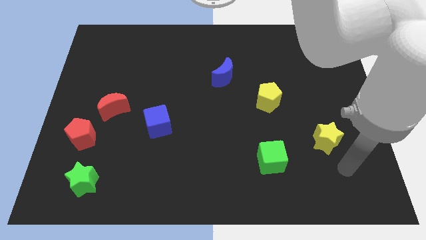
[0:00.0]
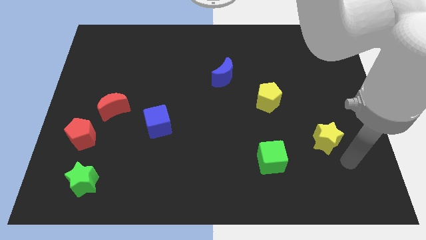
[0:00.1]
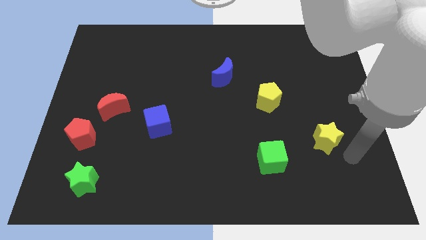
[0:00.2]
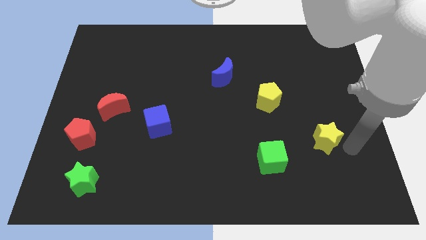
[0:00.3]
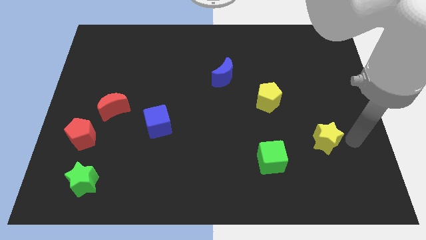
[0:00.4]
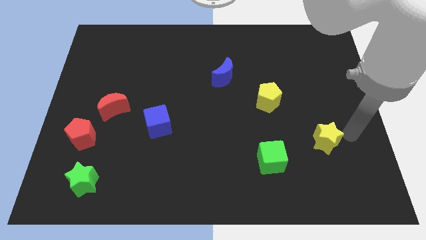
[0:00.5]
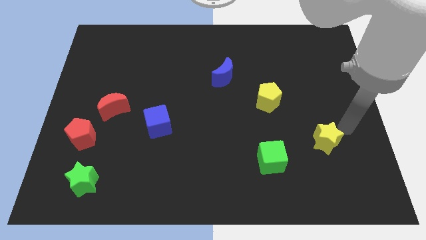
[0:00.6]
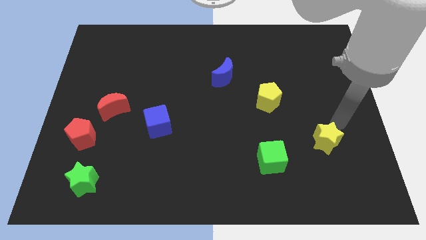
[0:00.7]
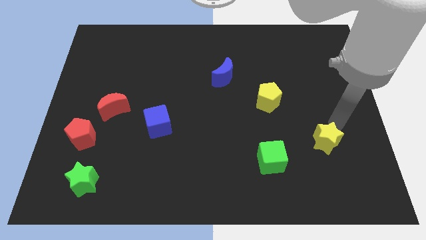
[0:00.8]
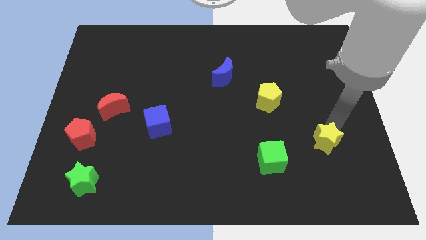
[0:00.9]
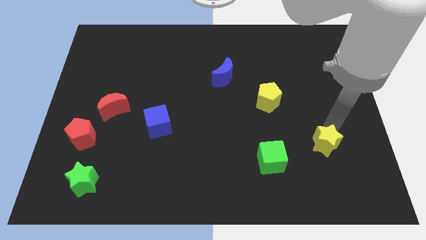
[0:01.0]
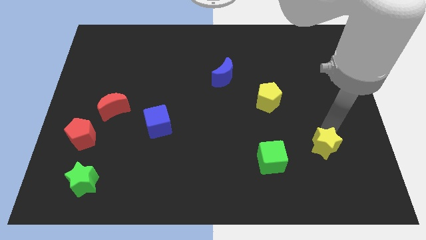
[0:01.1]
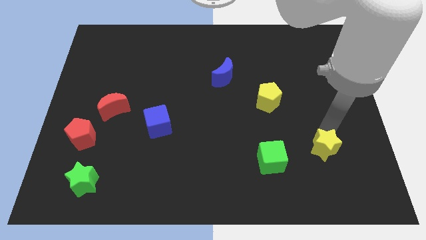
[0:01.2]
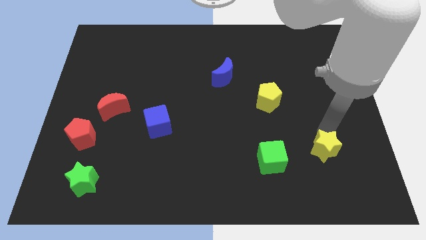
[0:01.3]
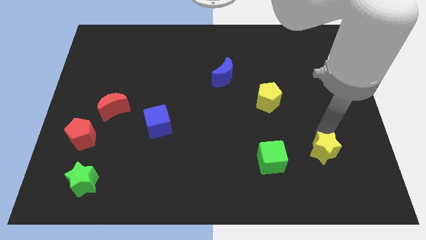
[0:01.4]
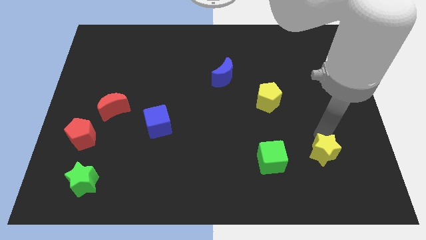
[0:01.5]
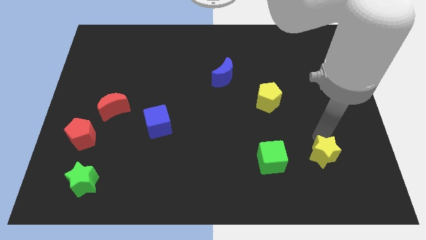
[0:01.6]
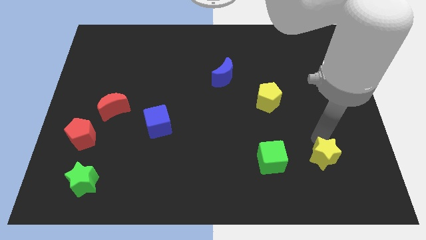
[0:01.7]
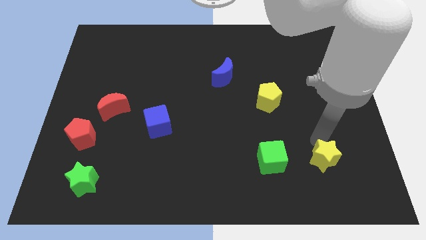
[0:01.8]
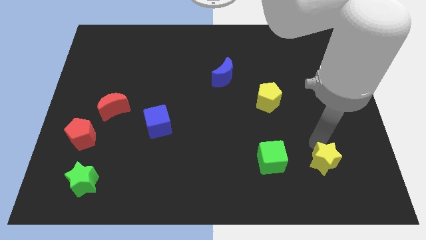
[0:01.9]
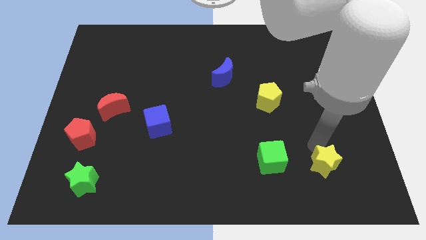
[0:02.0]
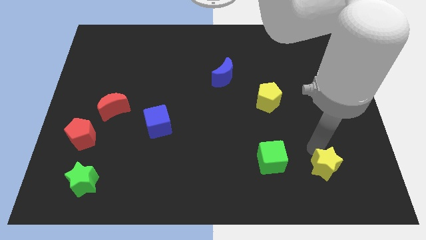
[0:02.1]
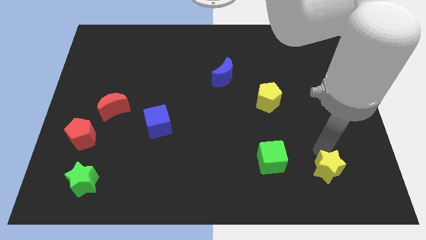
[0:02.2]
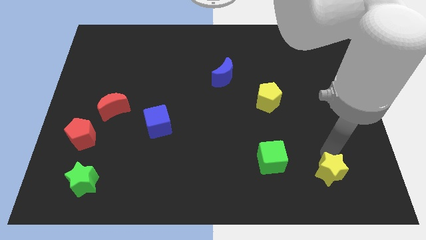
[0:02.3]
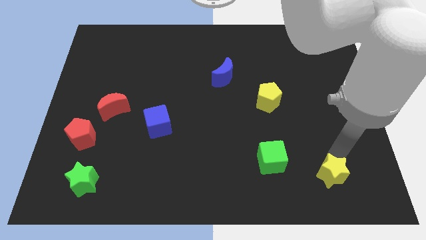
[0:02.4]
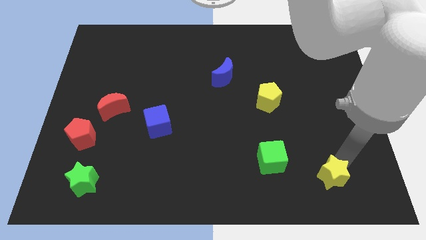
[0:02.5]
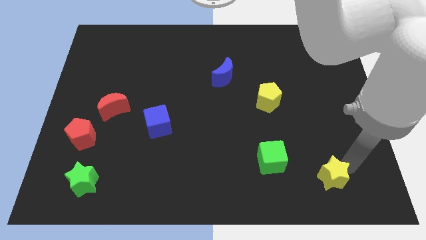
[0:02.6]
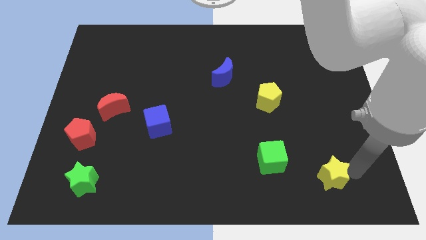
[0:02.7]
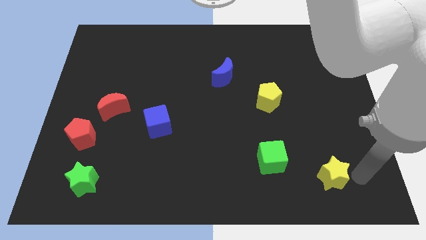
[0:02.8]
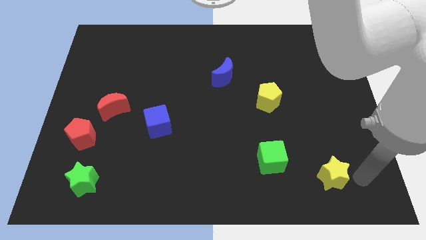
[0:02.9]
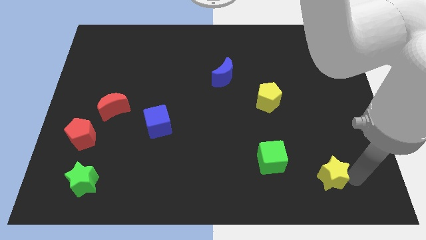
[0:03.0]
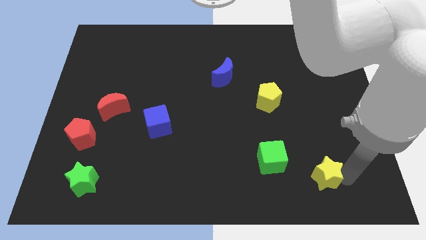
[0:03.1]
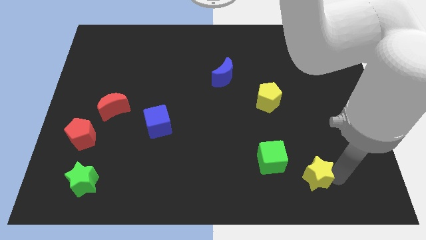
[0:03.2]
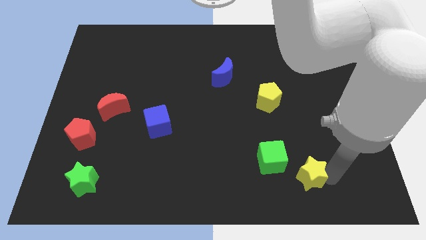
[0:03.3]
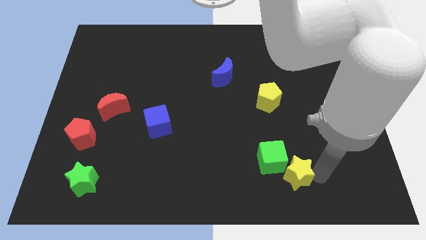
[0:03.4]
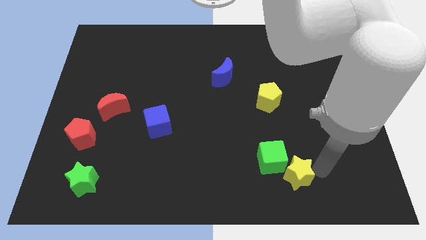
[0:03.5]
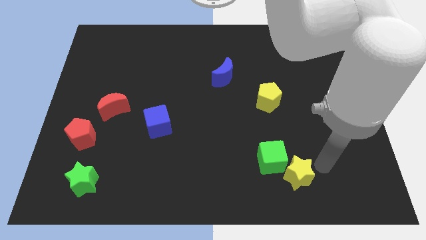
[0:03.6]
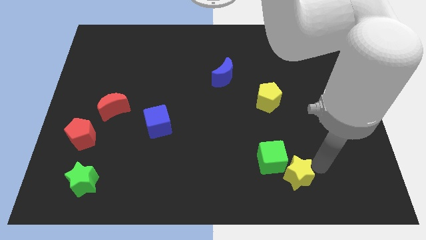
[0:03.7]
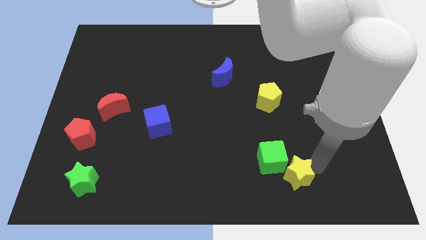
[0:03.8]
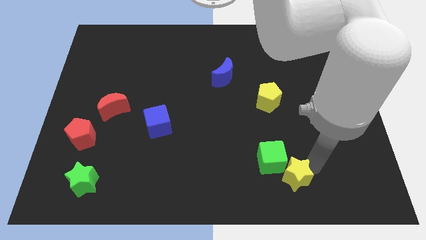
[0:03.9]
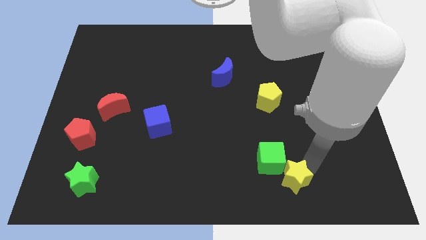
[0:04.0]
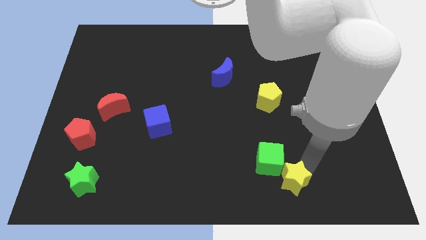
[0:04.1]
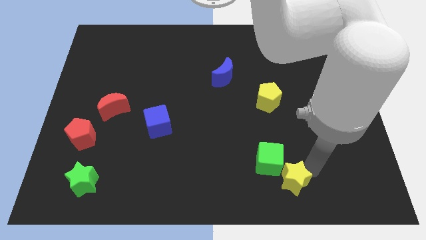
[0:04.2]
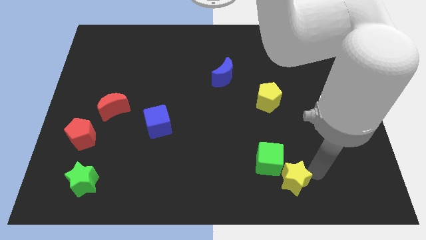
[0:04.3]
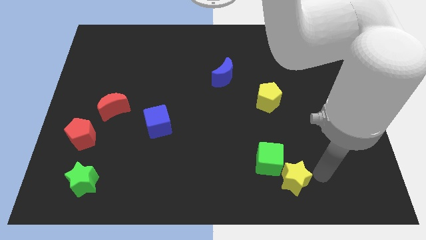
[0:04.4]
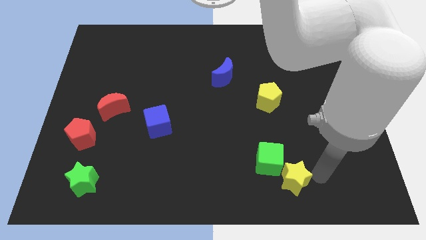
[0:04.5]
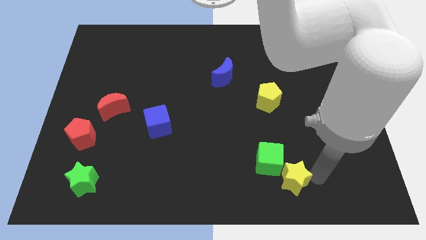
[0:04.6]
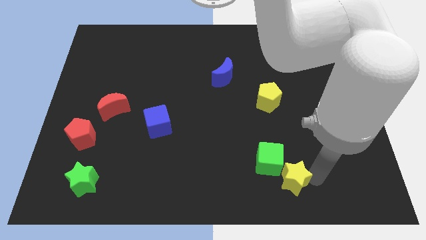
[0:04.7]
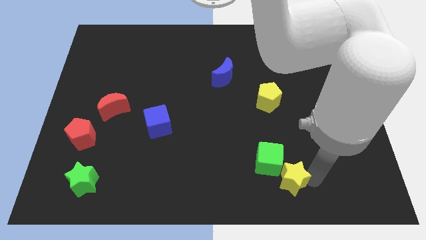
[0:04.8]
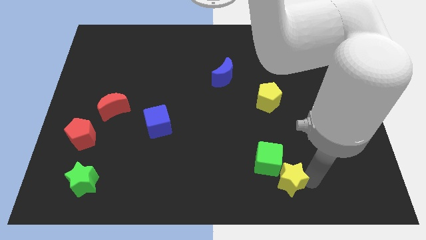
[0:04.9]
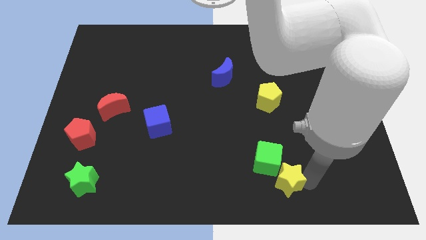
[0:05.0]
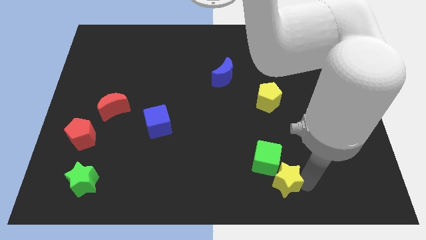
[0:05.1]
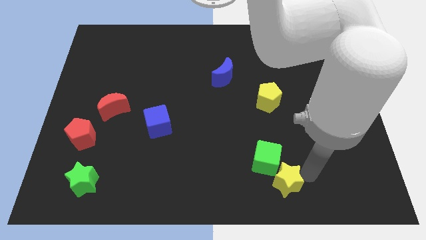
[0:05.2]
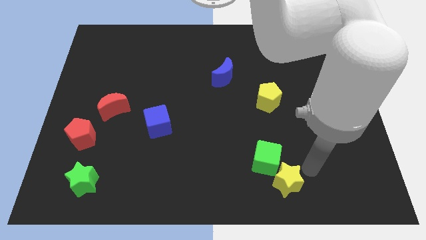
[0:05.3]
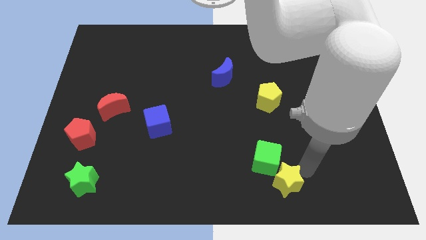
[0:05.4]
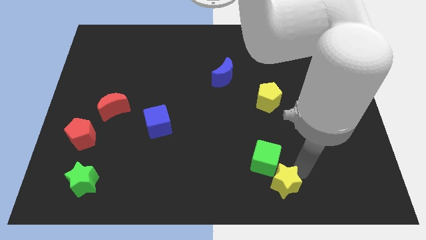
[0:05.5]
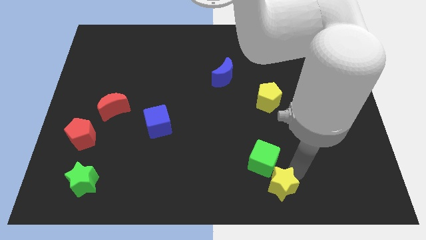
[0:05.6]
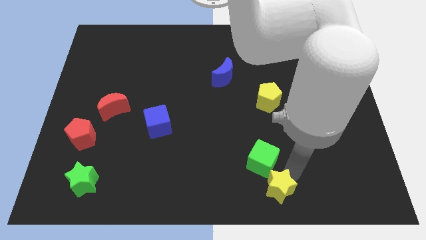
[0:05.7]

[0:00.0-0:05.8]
move the yellow star to the bottom

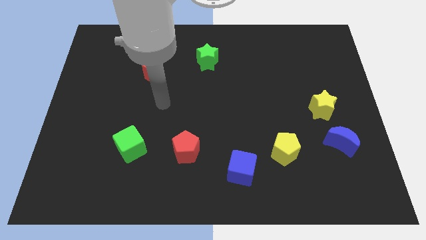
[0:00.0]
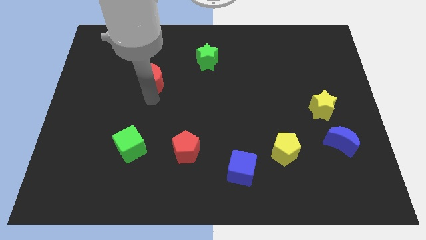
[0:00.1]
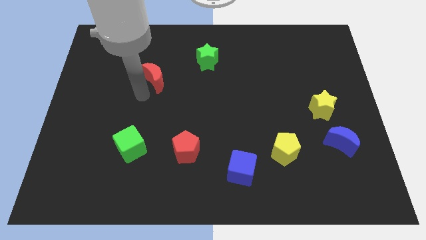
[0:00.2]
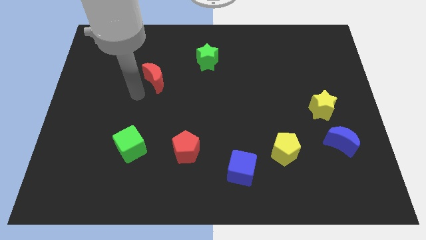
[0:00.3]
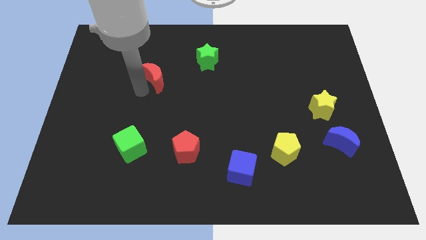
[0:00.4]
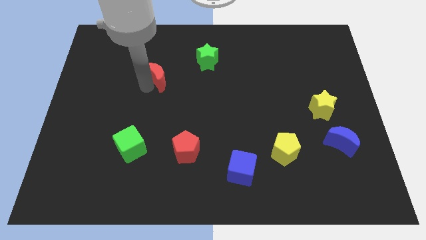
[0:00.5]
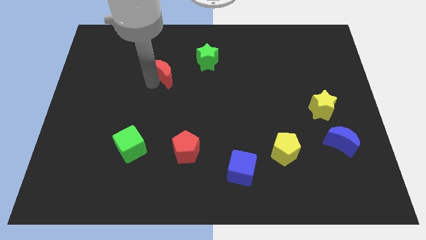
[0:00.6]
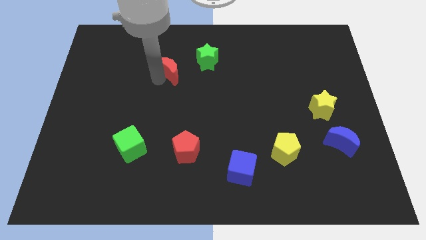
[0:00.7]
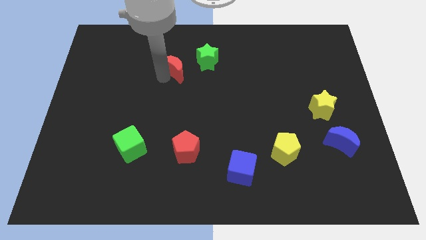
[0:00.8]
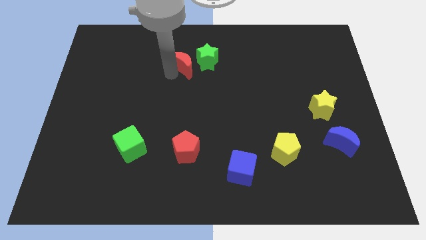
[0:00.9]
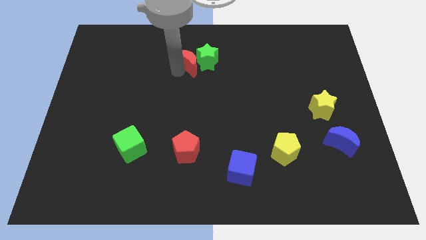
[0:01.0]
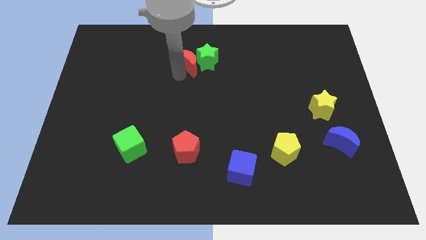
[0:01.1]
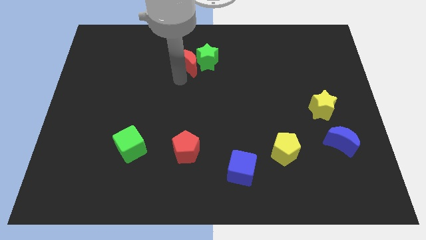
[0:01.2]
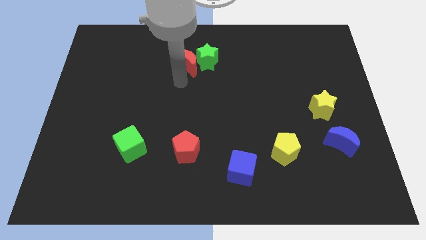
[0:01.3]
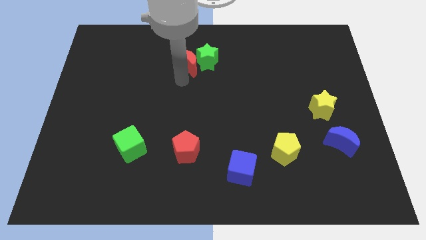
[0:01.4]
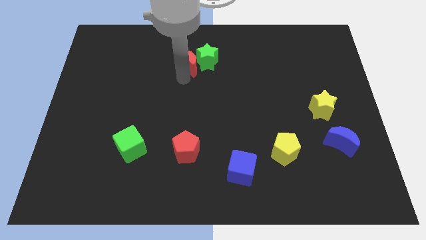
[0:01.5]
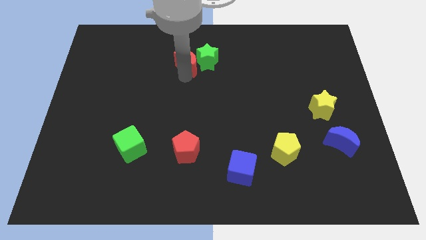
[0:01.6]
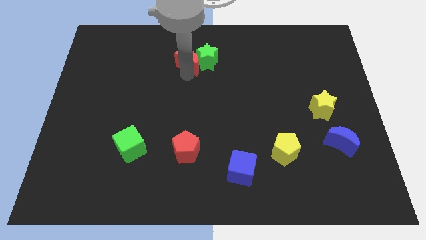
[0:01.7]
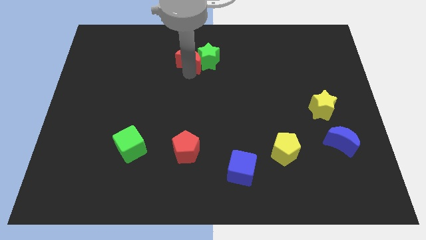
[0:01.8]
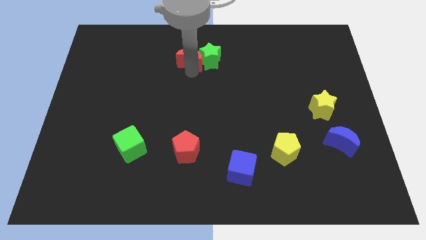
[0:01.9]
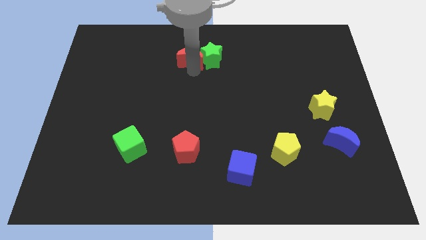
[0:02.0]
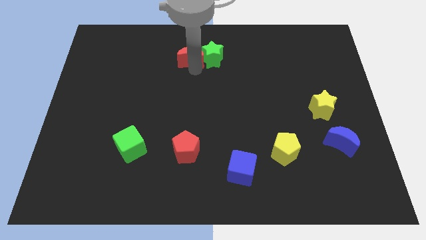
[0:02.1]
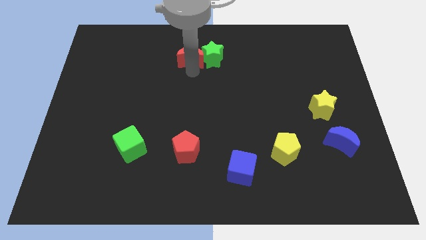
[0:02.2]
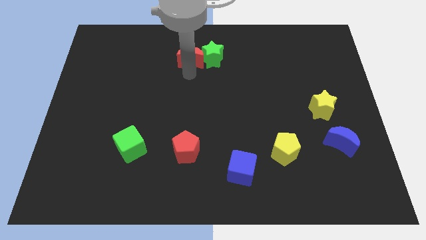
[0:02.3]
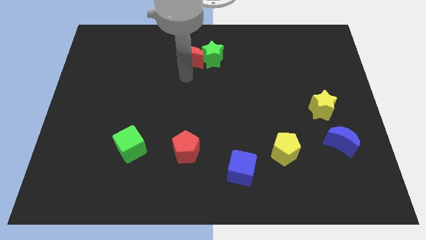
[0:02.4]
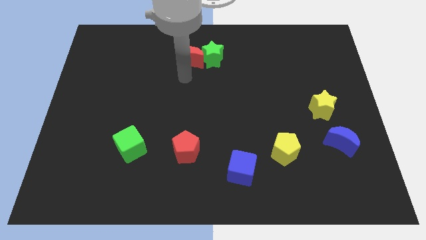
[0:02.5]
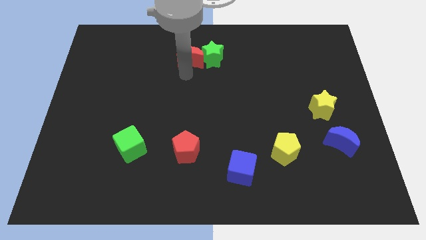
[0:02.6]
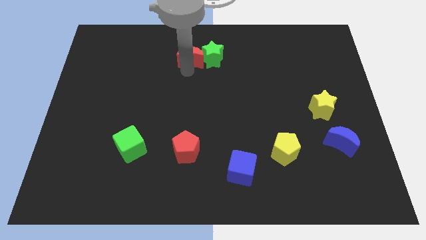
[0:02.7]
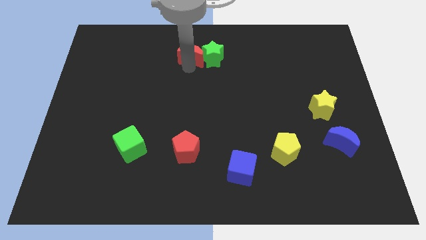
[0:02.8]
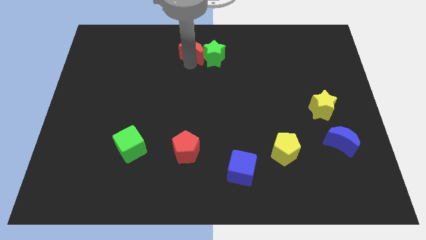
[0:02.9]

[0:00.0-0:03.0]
move the red moon to the top side
